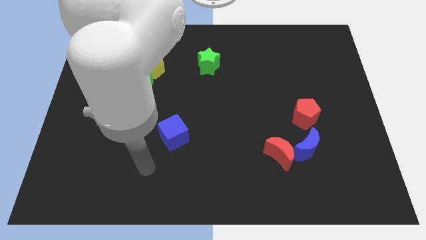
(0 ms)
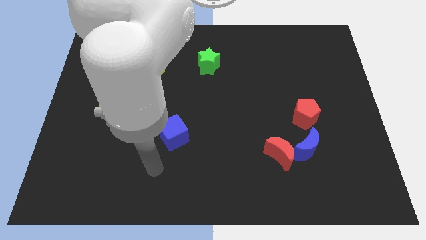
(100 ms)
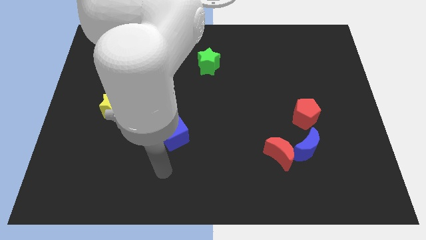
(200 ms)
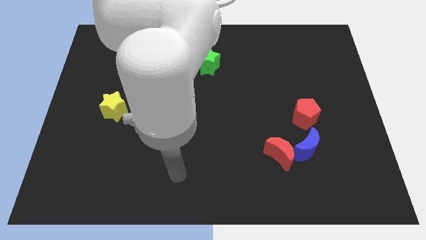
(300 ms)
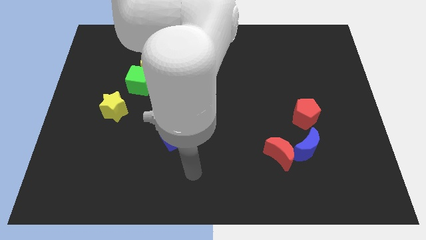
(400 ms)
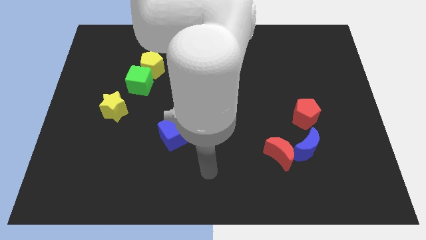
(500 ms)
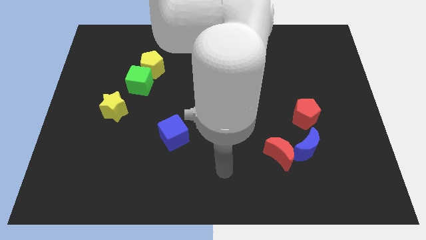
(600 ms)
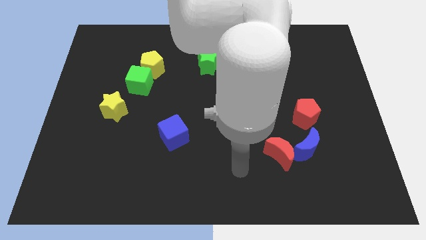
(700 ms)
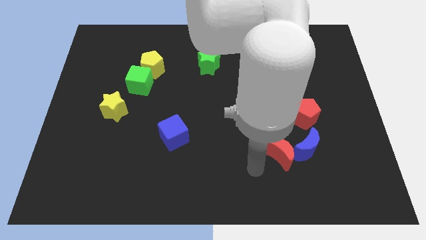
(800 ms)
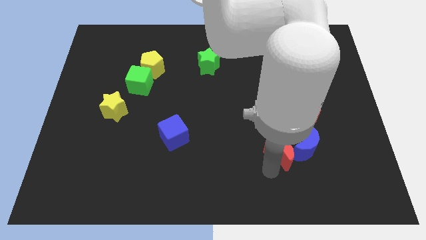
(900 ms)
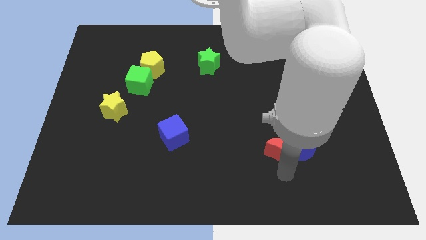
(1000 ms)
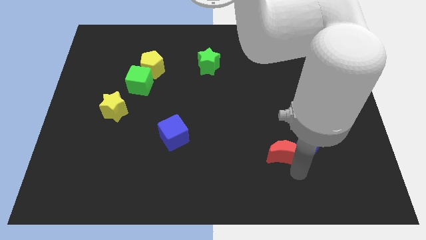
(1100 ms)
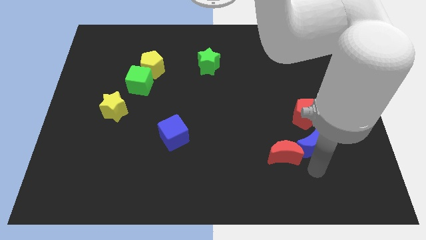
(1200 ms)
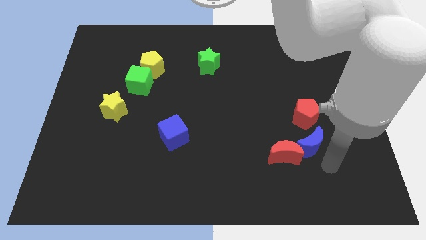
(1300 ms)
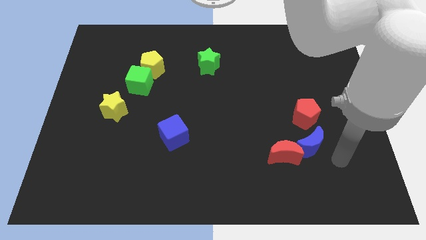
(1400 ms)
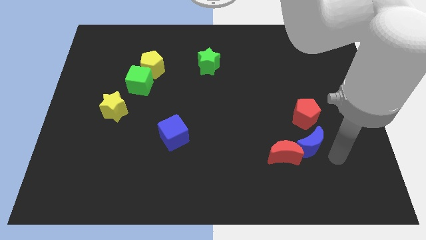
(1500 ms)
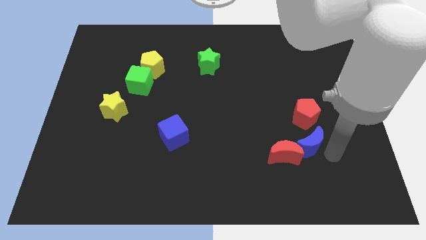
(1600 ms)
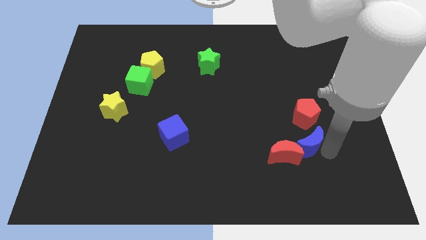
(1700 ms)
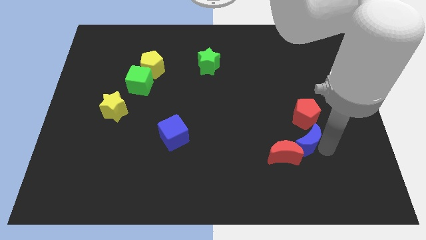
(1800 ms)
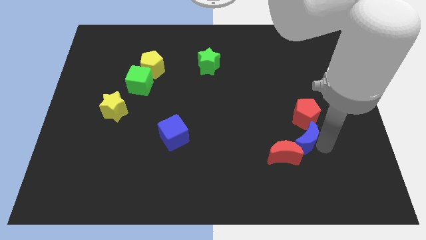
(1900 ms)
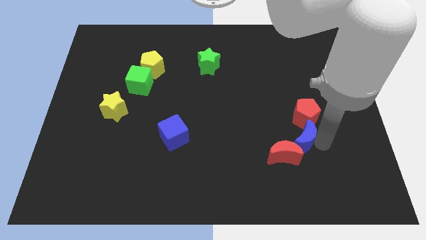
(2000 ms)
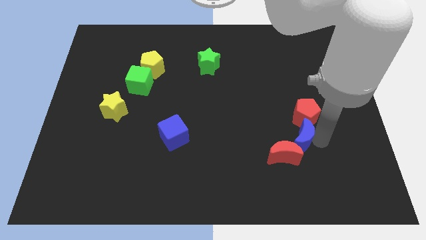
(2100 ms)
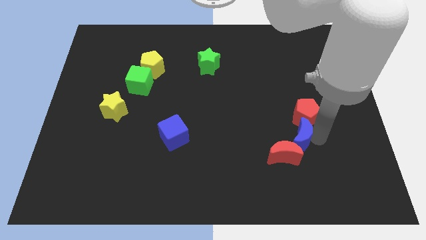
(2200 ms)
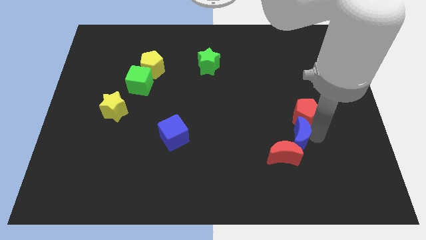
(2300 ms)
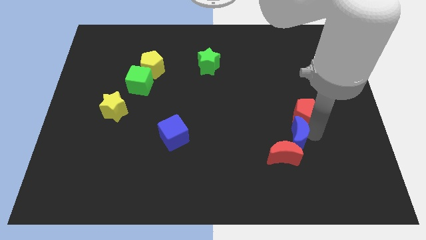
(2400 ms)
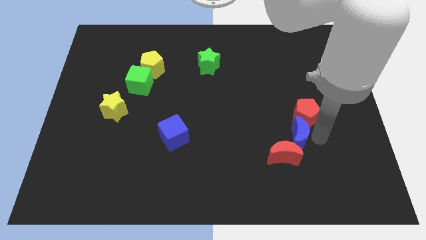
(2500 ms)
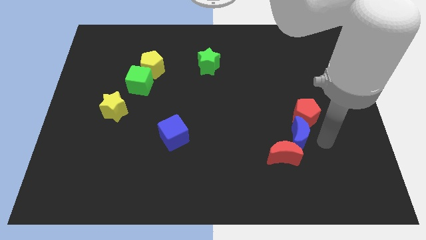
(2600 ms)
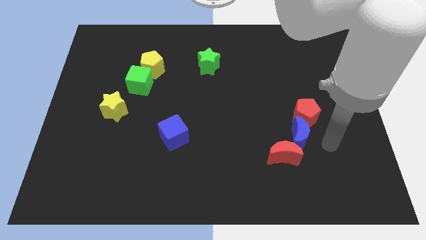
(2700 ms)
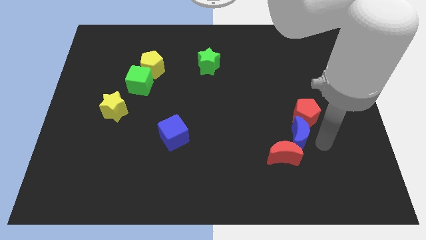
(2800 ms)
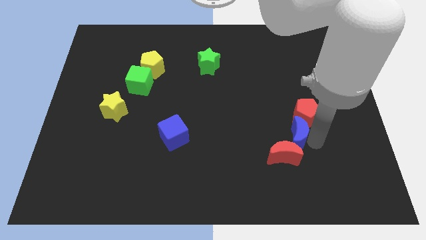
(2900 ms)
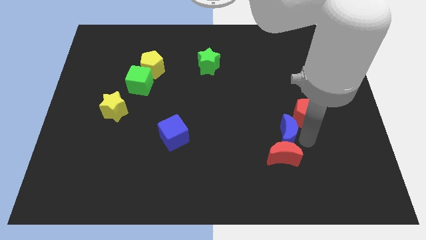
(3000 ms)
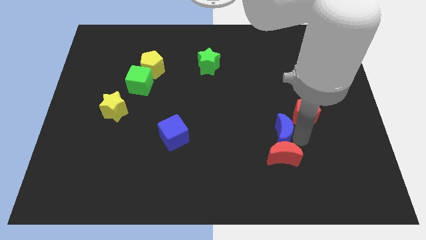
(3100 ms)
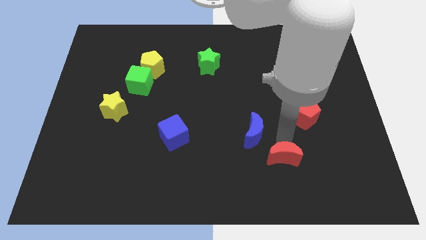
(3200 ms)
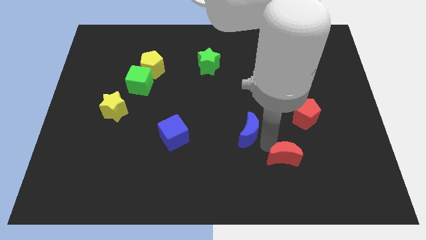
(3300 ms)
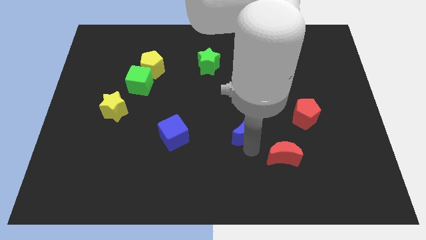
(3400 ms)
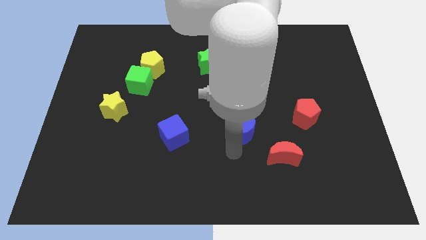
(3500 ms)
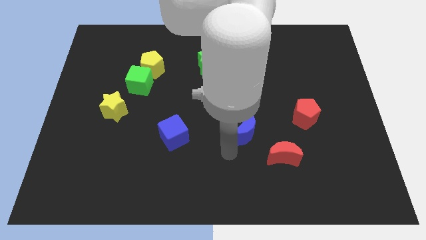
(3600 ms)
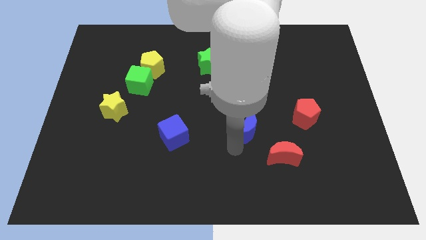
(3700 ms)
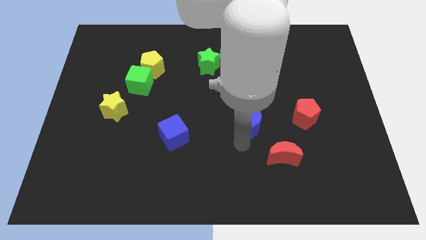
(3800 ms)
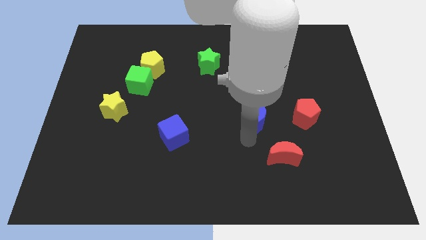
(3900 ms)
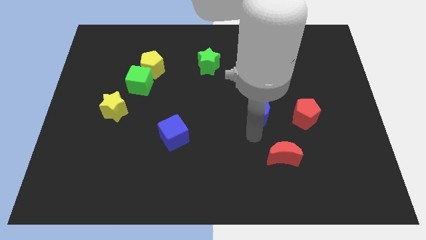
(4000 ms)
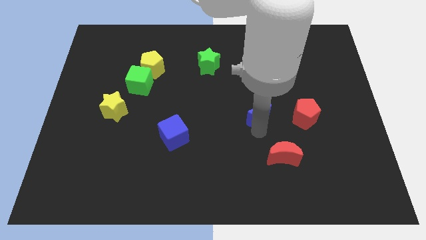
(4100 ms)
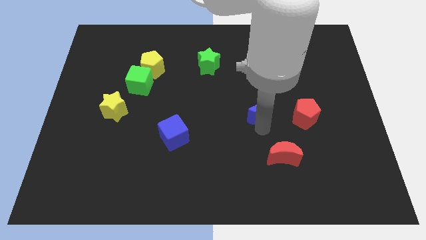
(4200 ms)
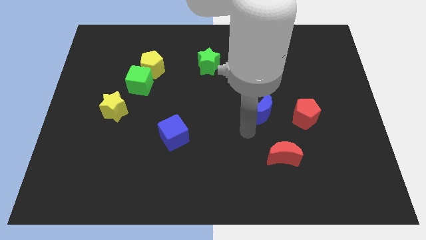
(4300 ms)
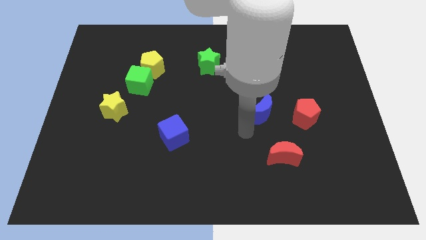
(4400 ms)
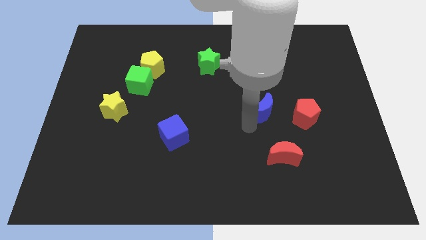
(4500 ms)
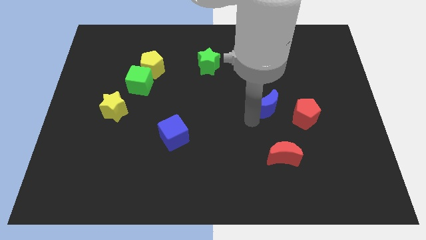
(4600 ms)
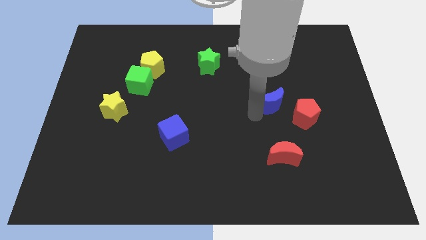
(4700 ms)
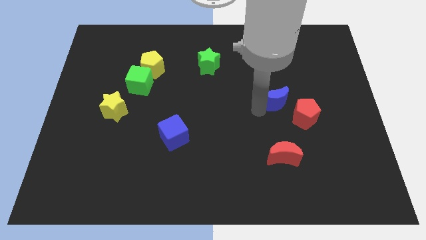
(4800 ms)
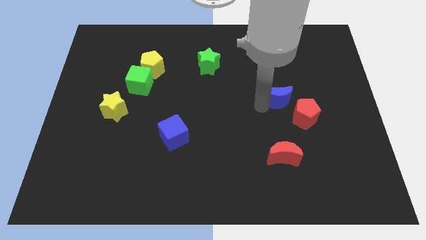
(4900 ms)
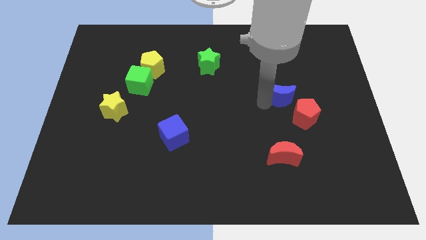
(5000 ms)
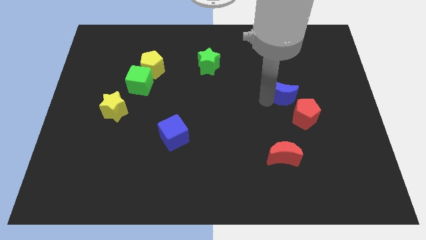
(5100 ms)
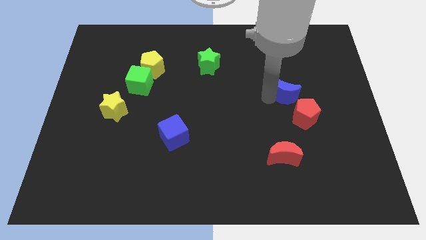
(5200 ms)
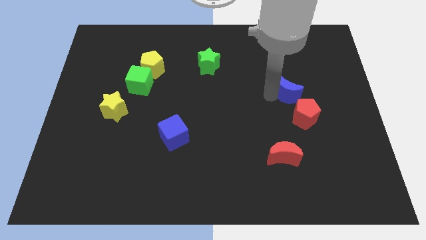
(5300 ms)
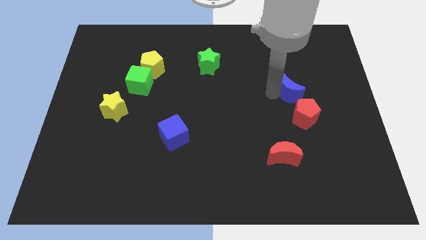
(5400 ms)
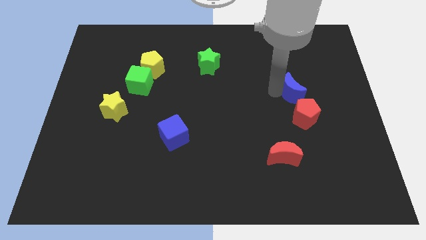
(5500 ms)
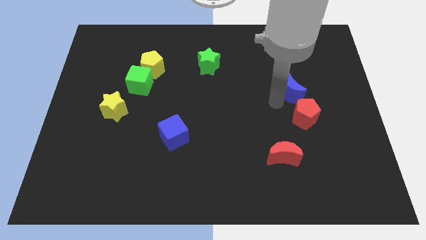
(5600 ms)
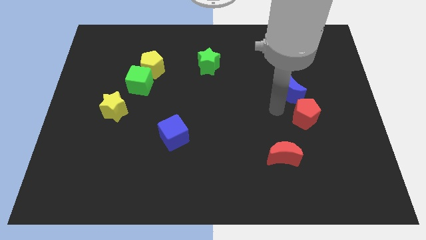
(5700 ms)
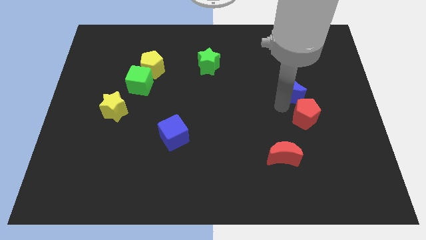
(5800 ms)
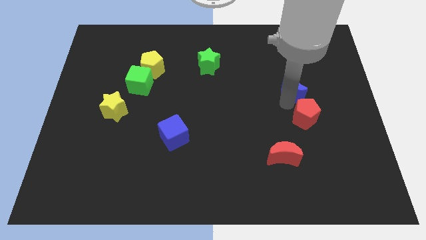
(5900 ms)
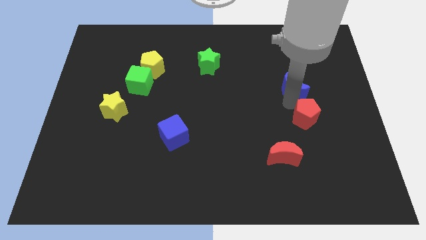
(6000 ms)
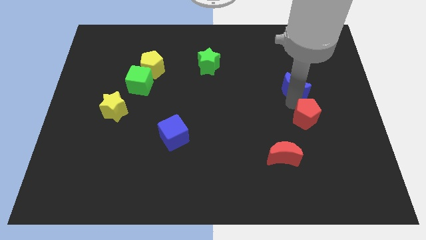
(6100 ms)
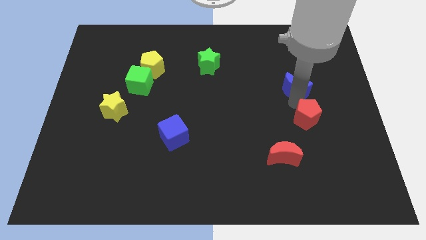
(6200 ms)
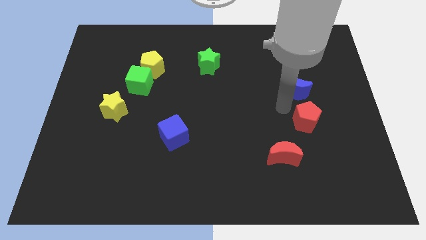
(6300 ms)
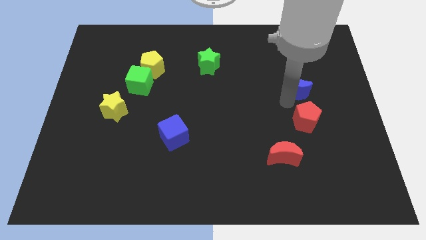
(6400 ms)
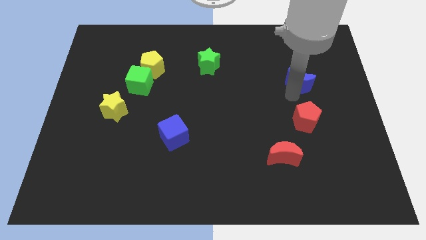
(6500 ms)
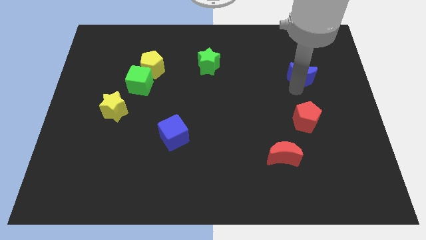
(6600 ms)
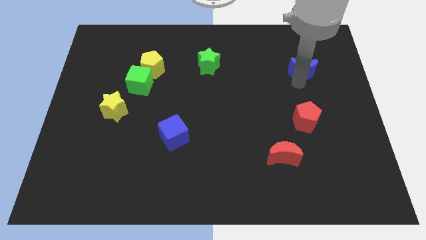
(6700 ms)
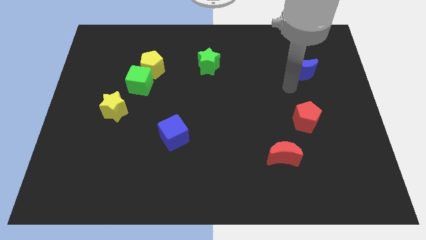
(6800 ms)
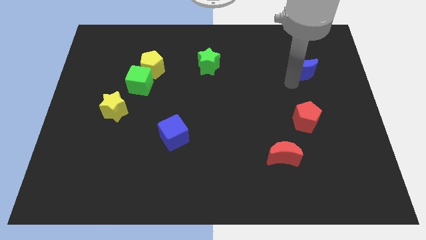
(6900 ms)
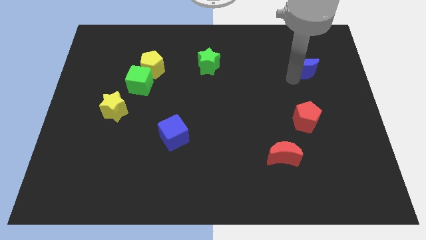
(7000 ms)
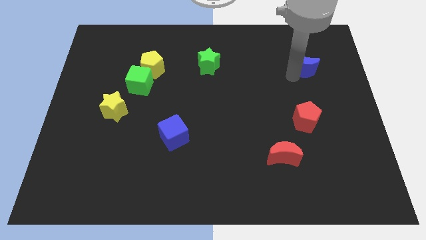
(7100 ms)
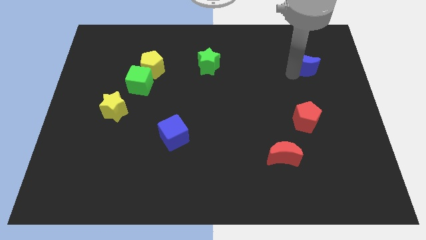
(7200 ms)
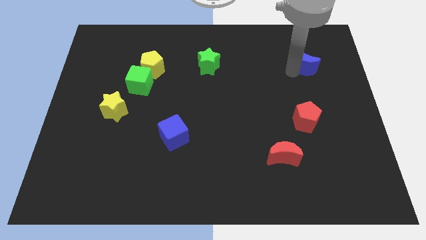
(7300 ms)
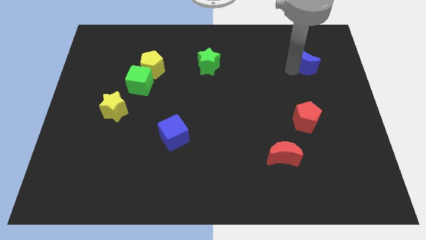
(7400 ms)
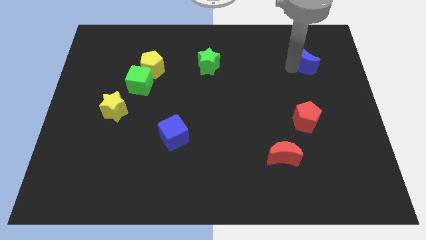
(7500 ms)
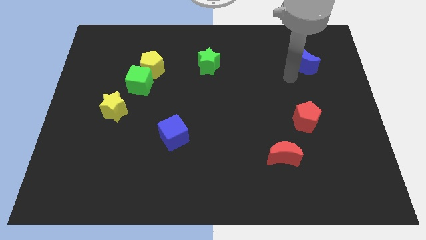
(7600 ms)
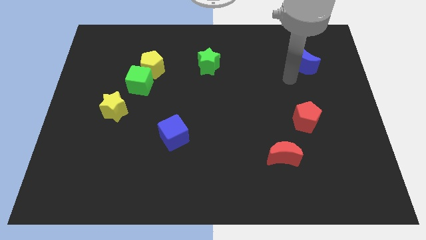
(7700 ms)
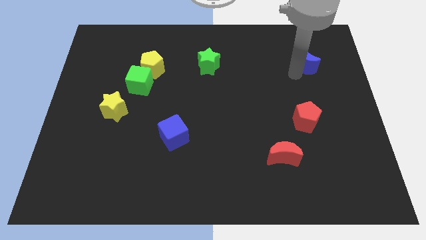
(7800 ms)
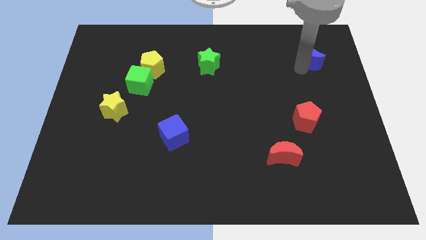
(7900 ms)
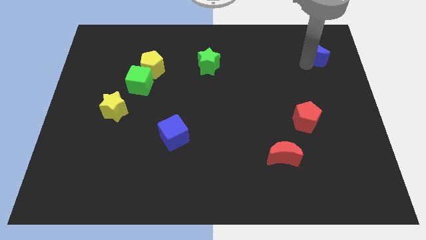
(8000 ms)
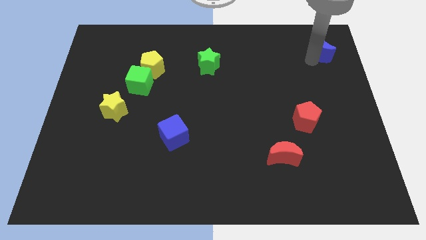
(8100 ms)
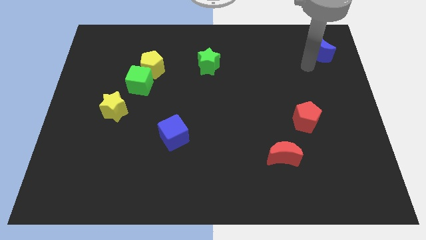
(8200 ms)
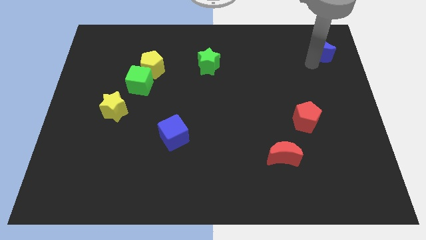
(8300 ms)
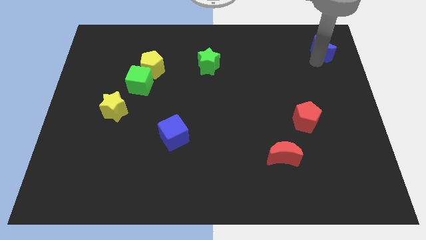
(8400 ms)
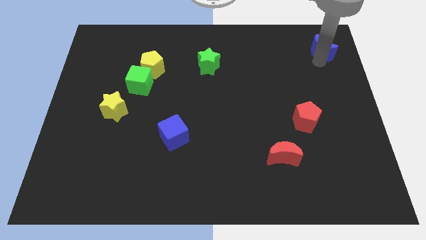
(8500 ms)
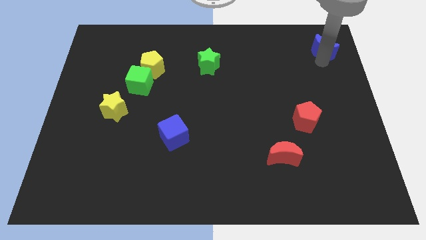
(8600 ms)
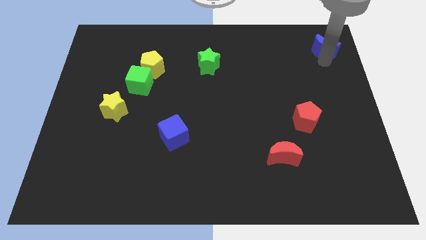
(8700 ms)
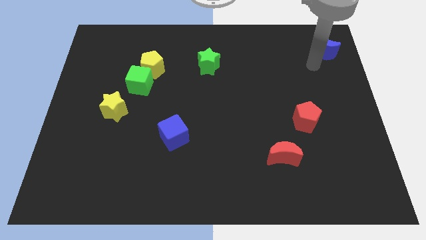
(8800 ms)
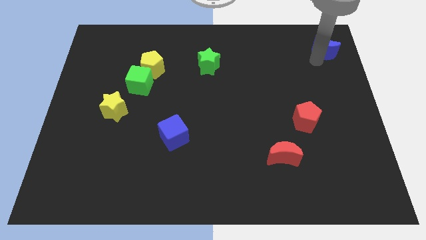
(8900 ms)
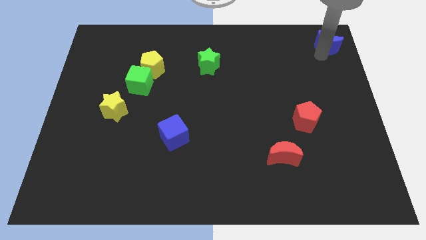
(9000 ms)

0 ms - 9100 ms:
slide the blue moon to the top right
